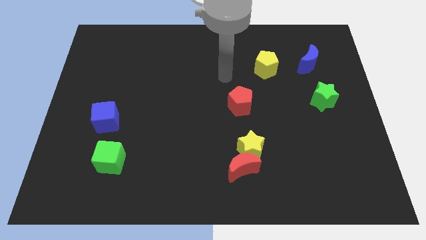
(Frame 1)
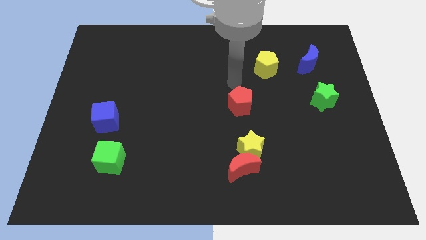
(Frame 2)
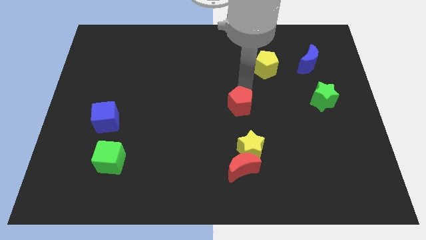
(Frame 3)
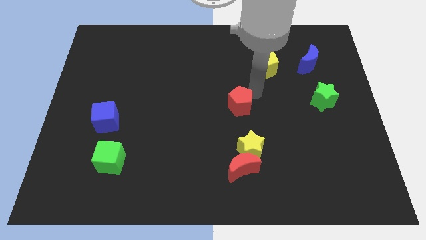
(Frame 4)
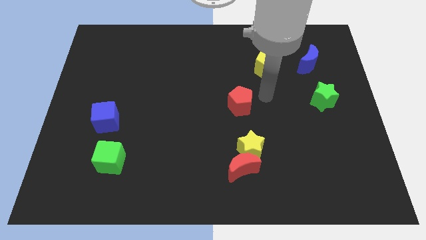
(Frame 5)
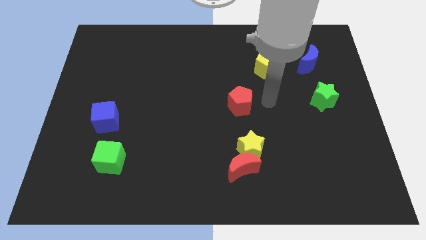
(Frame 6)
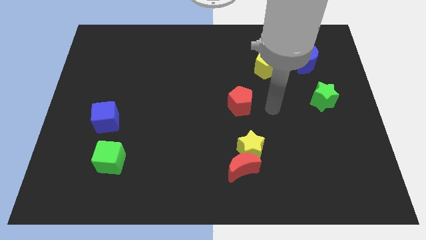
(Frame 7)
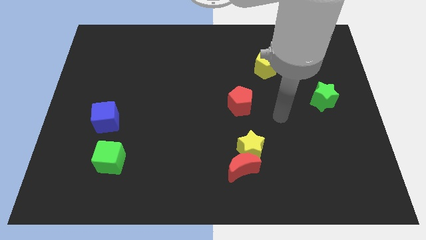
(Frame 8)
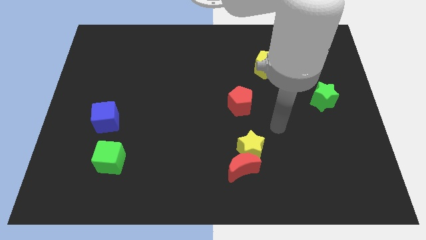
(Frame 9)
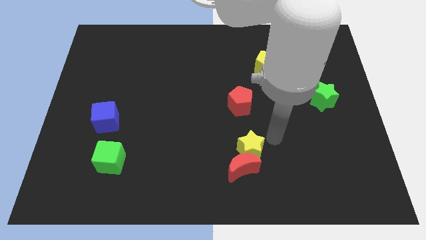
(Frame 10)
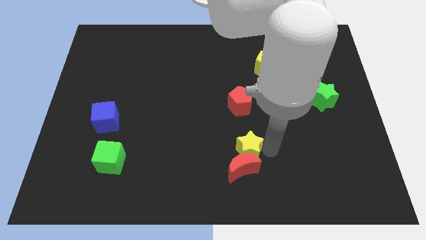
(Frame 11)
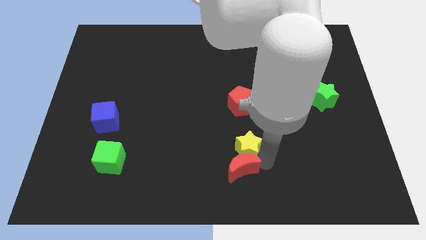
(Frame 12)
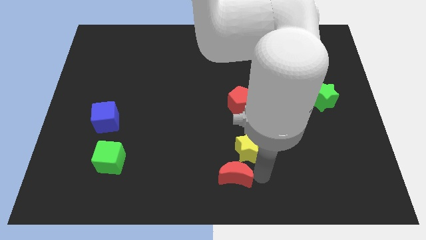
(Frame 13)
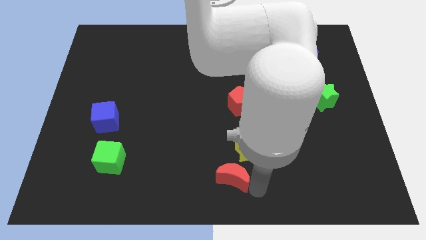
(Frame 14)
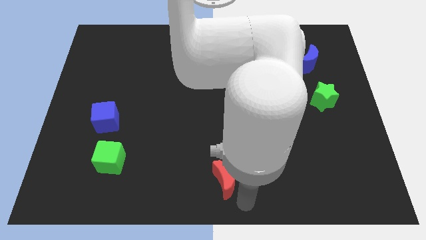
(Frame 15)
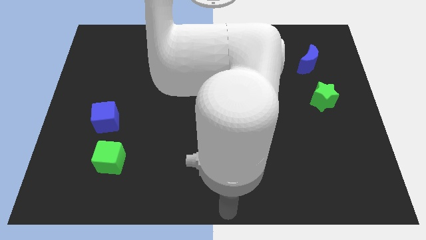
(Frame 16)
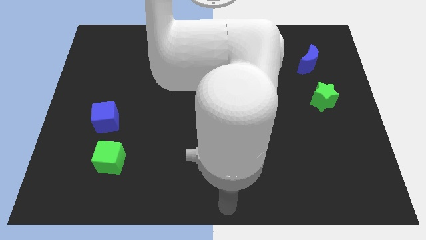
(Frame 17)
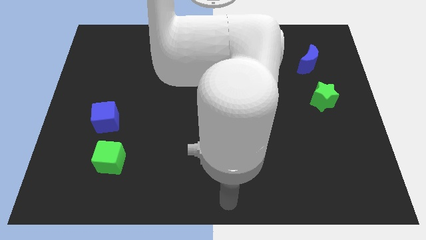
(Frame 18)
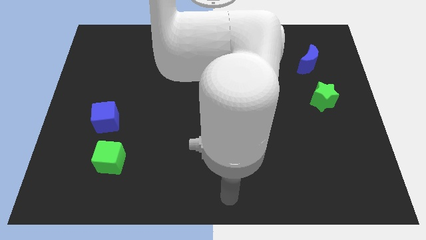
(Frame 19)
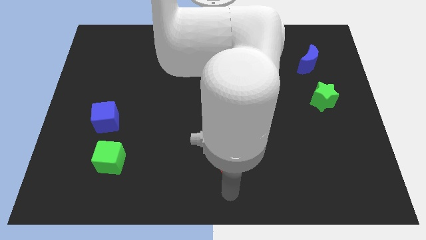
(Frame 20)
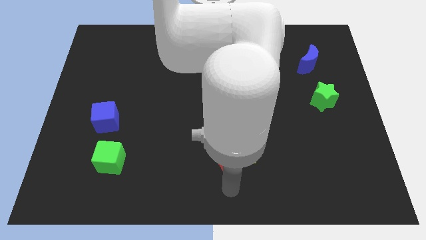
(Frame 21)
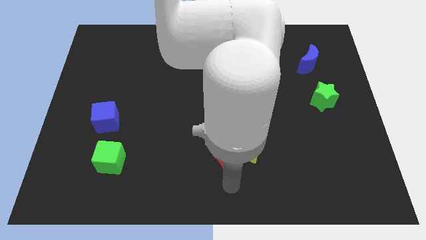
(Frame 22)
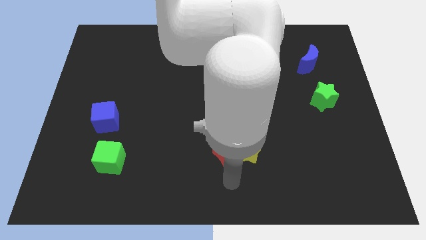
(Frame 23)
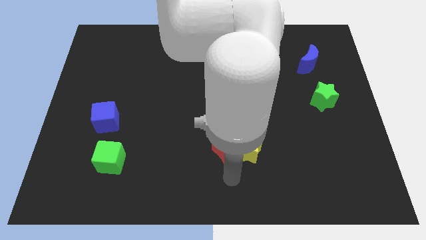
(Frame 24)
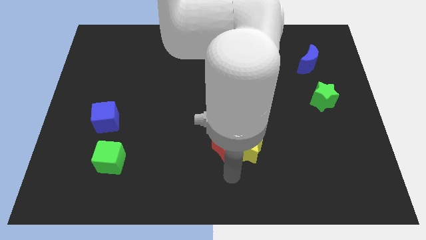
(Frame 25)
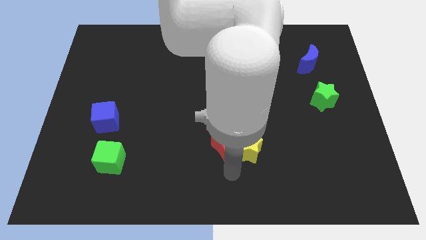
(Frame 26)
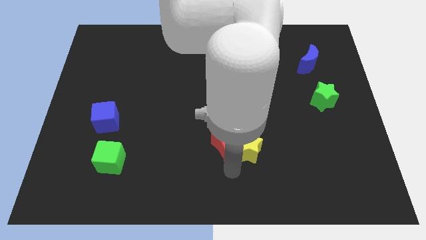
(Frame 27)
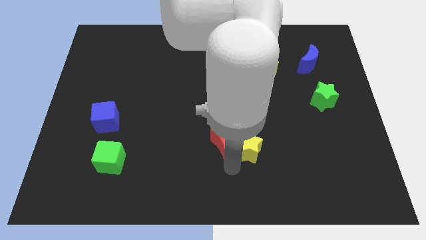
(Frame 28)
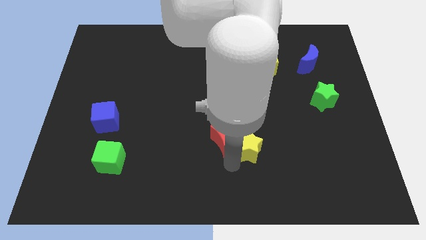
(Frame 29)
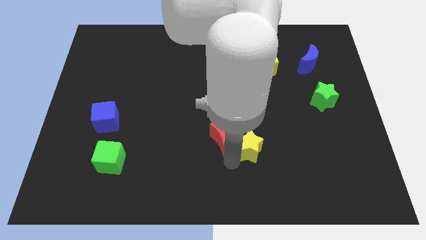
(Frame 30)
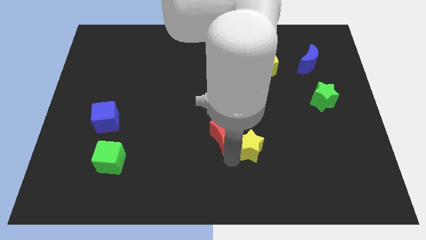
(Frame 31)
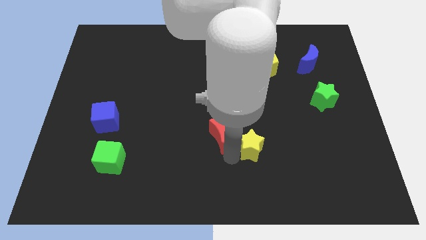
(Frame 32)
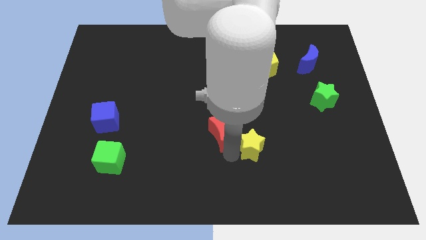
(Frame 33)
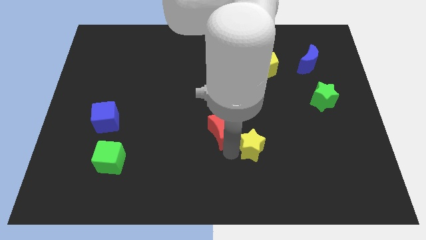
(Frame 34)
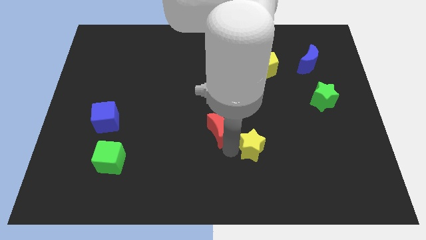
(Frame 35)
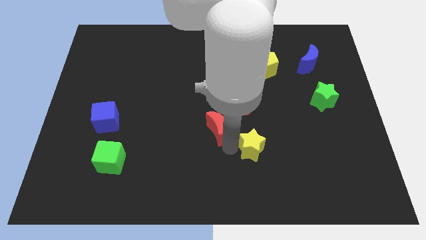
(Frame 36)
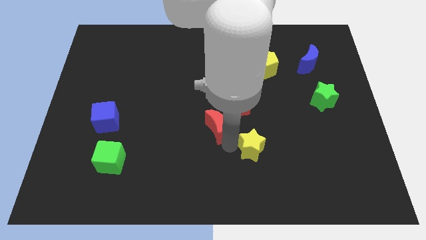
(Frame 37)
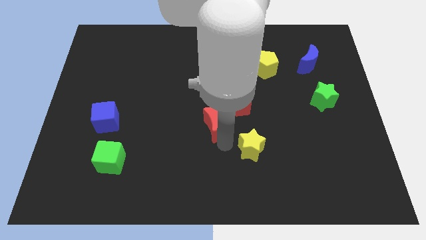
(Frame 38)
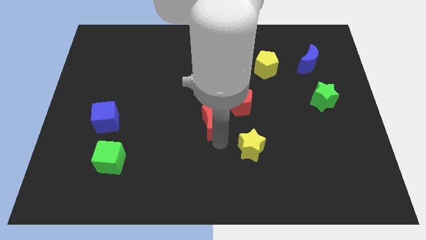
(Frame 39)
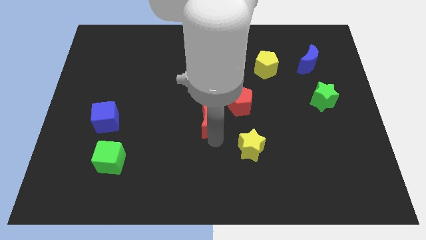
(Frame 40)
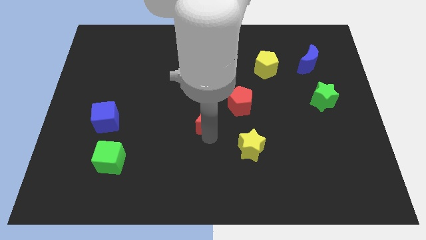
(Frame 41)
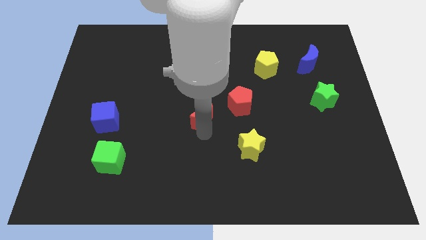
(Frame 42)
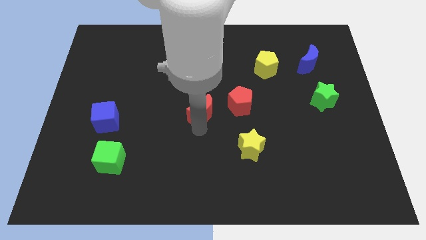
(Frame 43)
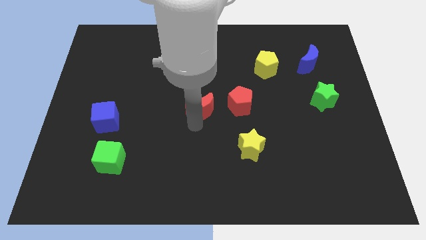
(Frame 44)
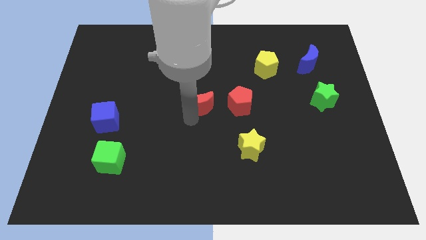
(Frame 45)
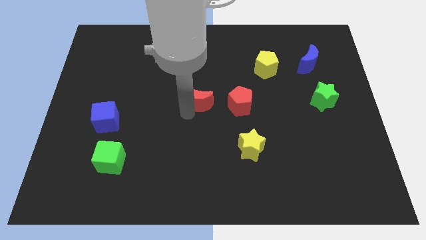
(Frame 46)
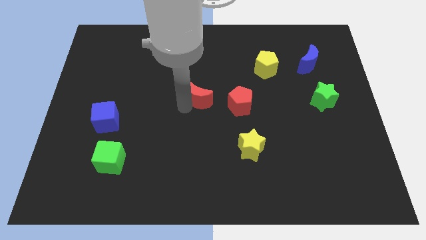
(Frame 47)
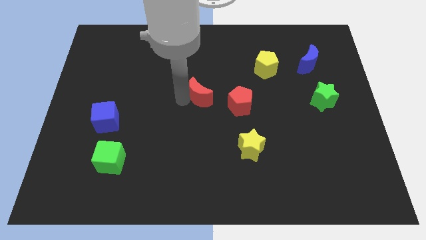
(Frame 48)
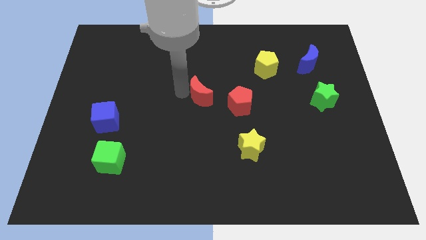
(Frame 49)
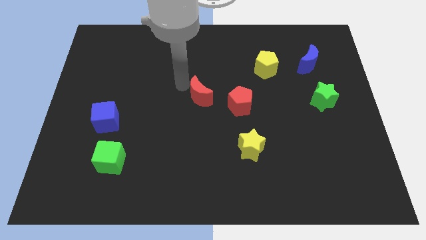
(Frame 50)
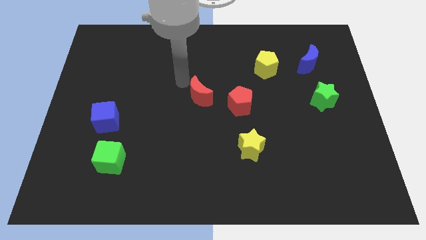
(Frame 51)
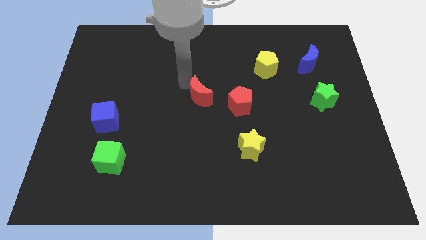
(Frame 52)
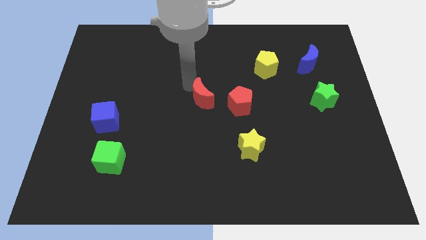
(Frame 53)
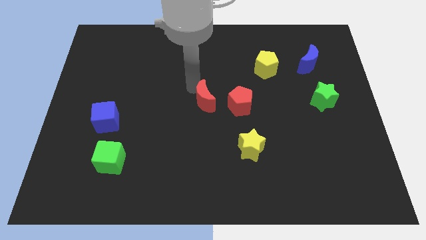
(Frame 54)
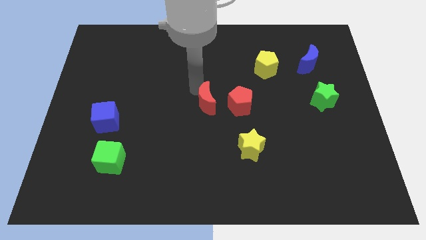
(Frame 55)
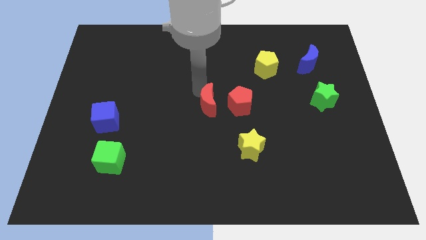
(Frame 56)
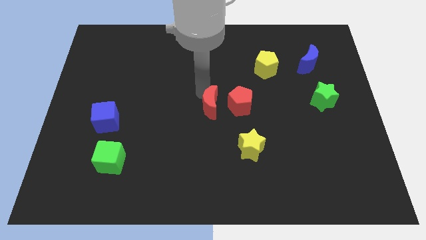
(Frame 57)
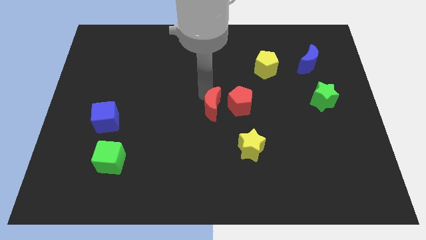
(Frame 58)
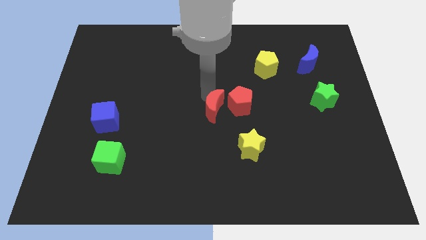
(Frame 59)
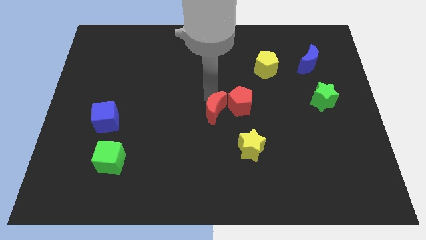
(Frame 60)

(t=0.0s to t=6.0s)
slide the red moon towards the red pentagon
